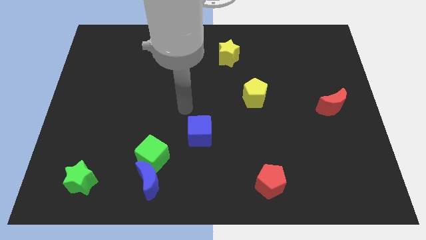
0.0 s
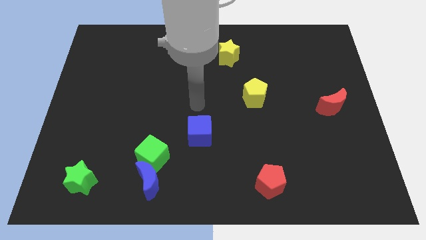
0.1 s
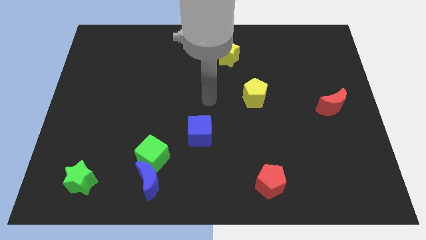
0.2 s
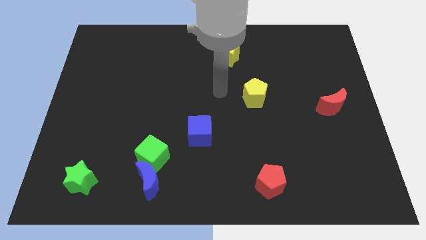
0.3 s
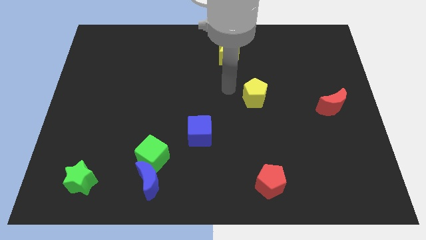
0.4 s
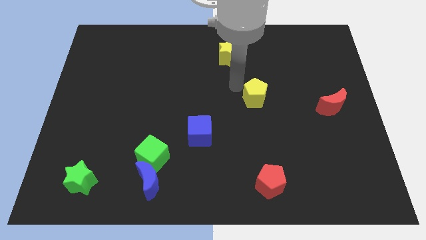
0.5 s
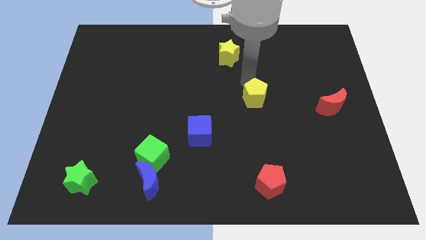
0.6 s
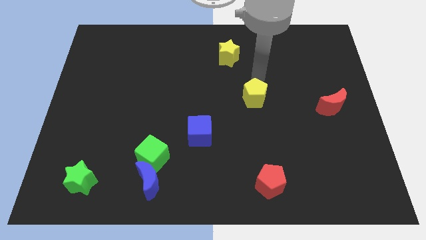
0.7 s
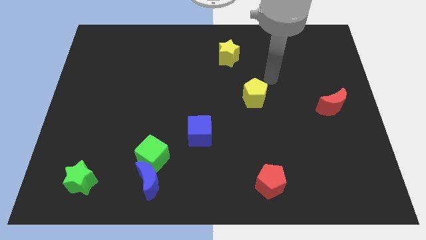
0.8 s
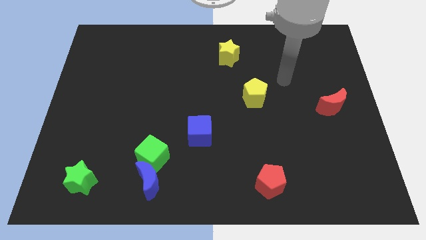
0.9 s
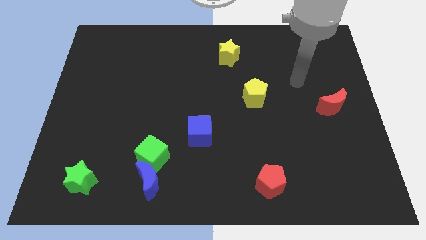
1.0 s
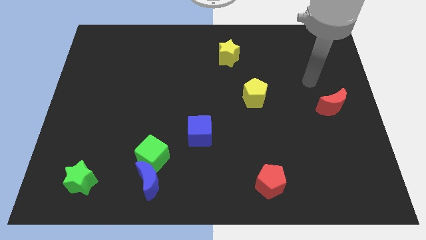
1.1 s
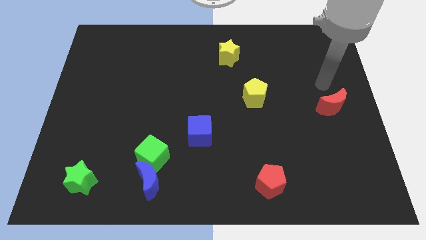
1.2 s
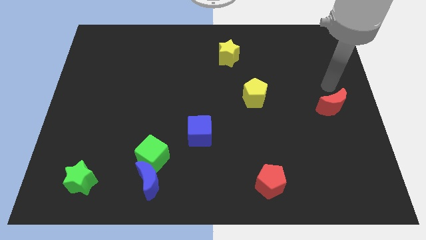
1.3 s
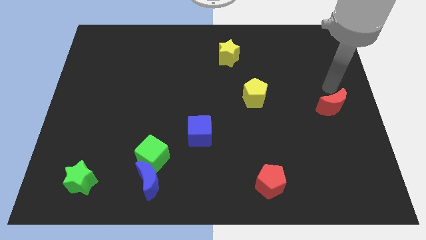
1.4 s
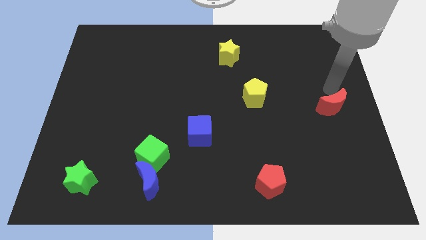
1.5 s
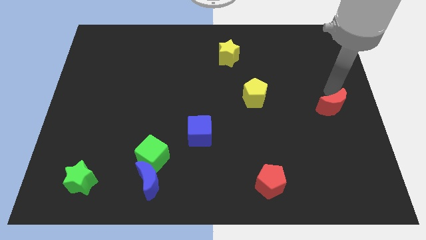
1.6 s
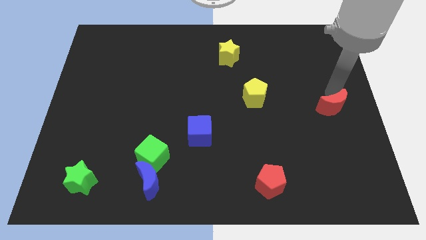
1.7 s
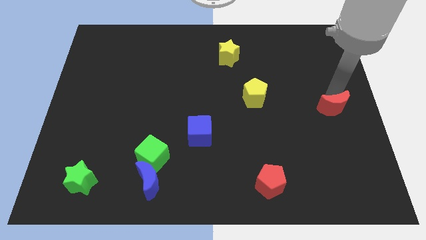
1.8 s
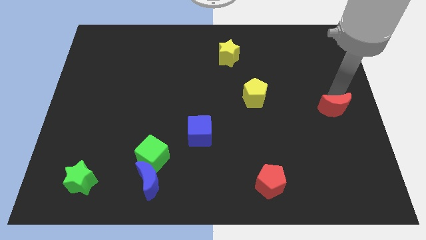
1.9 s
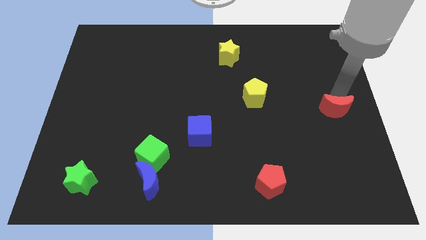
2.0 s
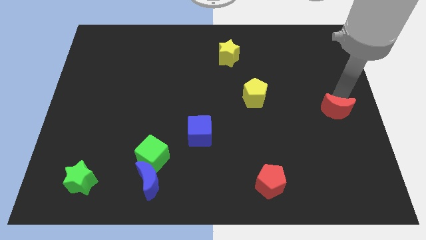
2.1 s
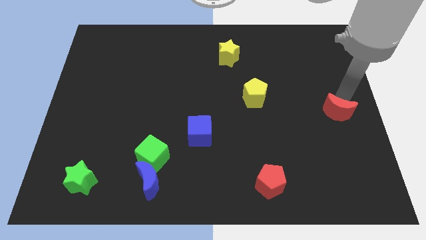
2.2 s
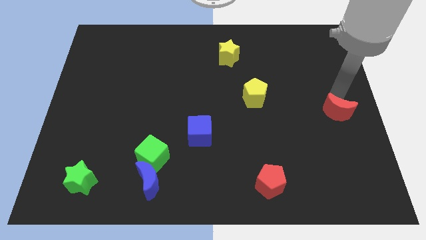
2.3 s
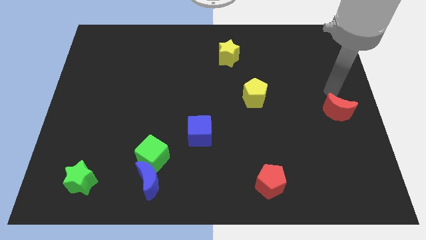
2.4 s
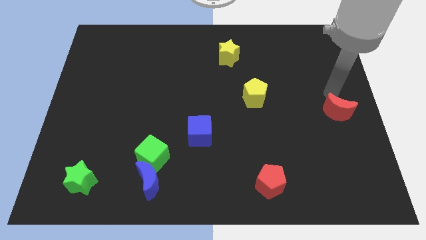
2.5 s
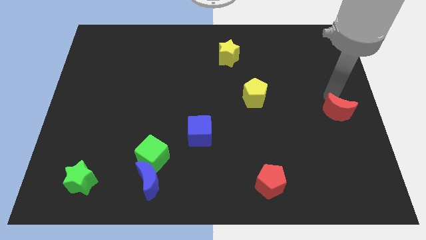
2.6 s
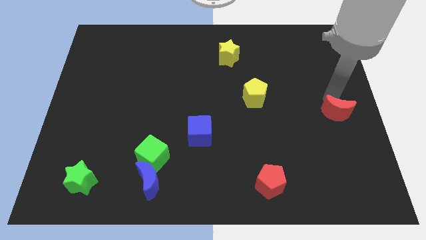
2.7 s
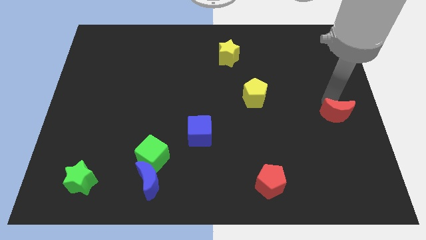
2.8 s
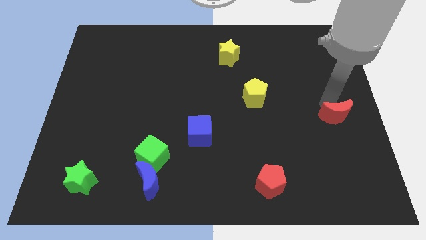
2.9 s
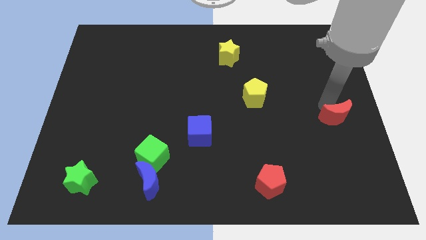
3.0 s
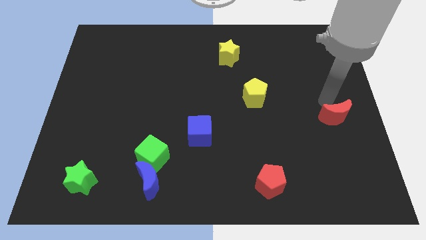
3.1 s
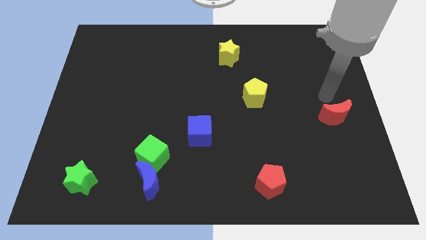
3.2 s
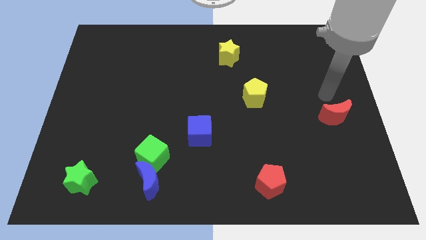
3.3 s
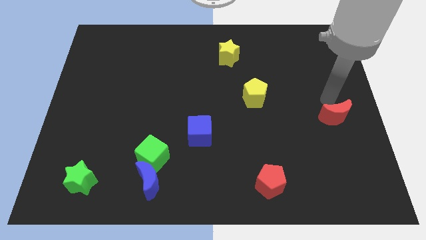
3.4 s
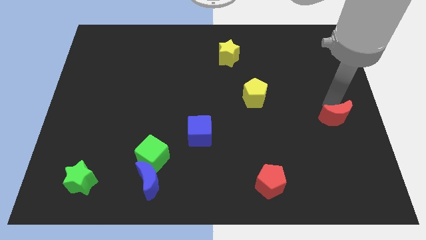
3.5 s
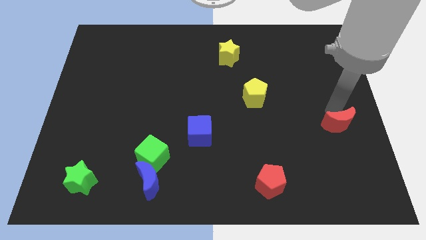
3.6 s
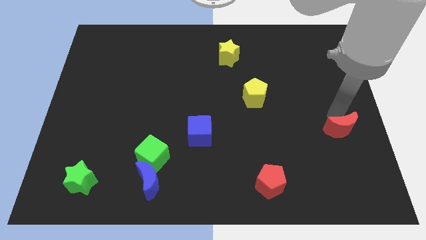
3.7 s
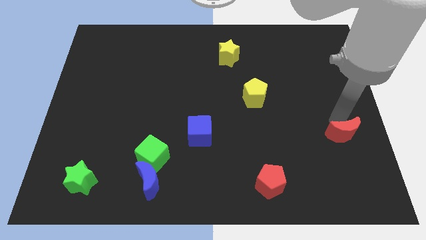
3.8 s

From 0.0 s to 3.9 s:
slightly push the red moon downwards

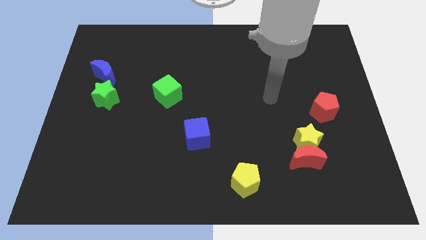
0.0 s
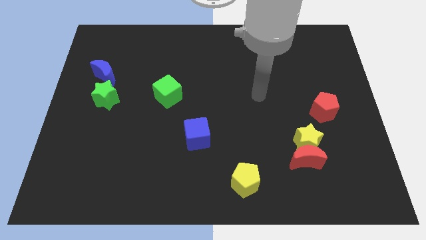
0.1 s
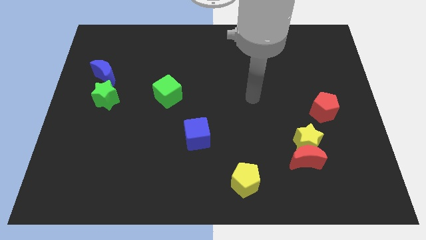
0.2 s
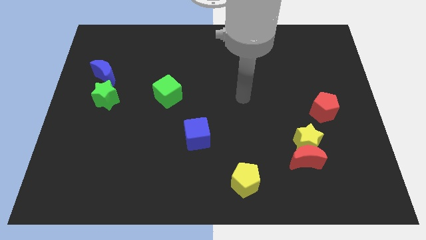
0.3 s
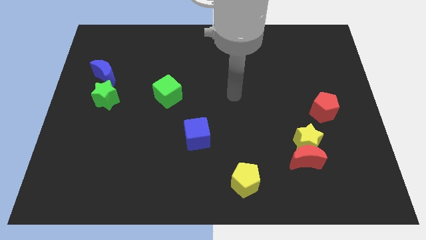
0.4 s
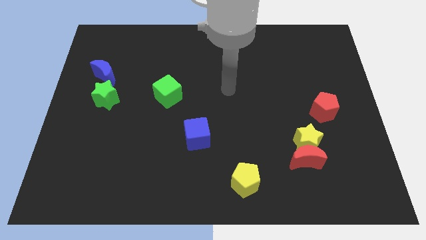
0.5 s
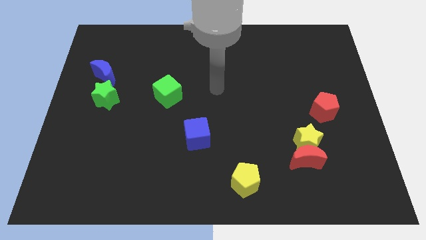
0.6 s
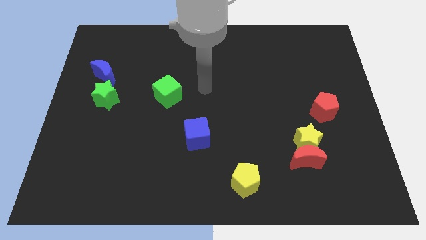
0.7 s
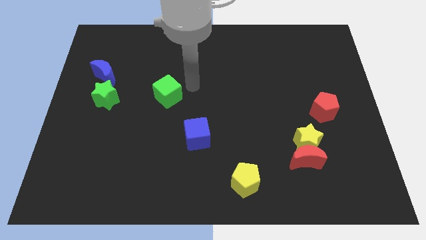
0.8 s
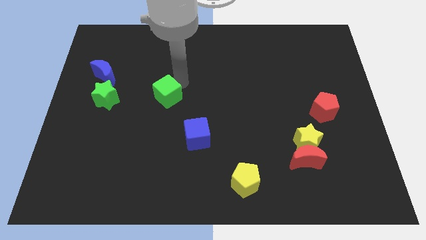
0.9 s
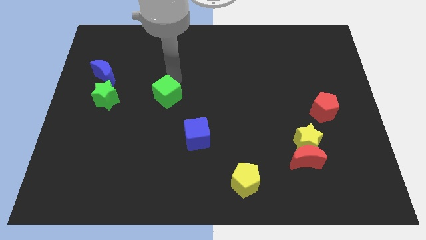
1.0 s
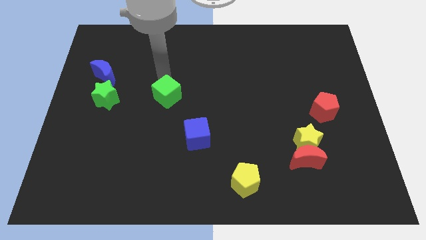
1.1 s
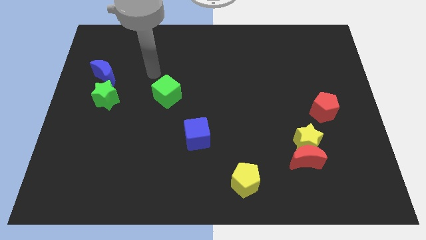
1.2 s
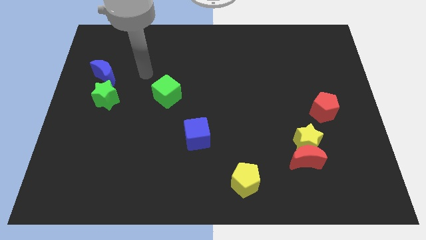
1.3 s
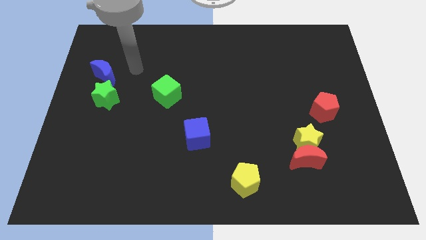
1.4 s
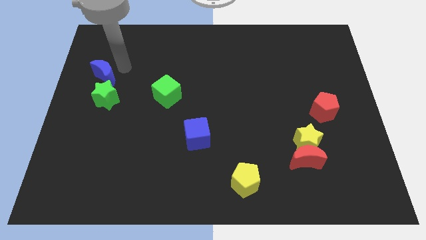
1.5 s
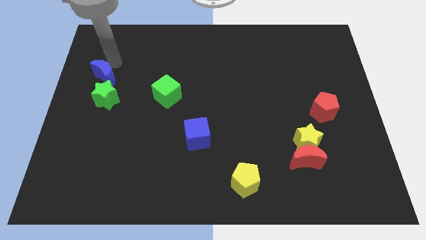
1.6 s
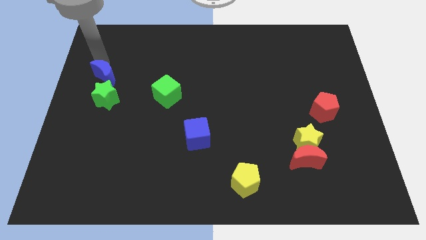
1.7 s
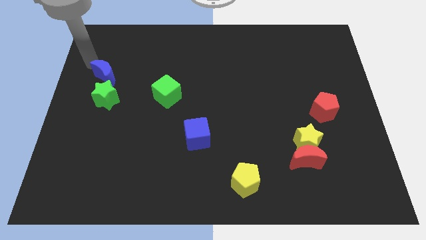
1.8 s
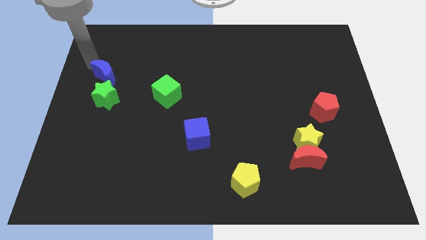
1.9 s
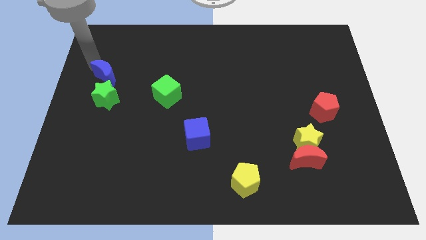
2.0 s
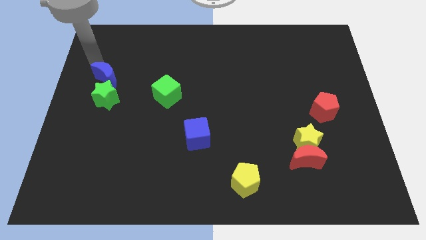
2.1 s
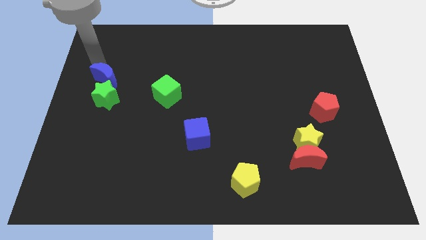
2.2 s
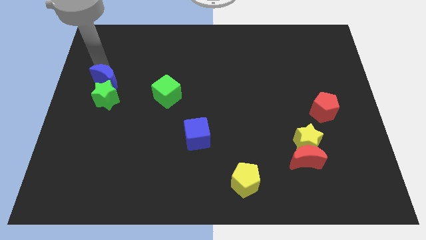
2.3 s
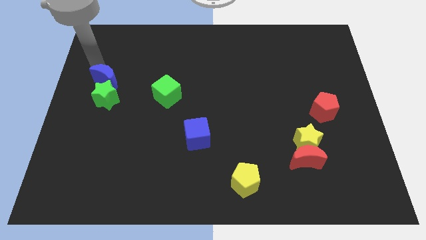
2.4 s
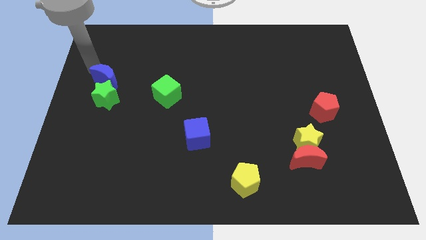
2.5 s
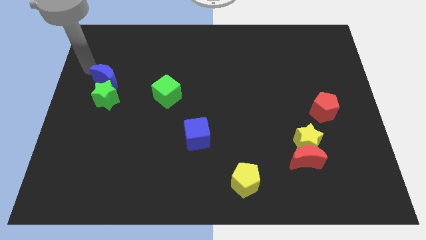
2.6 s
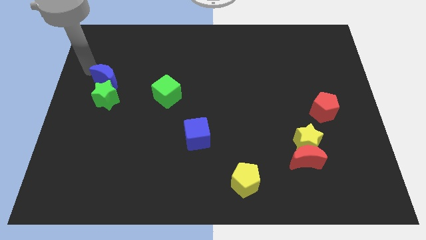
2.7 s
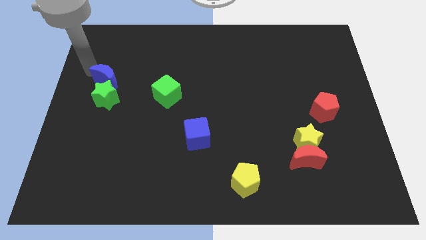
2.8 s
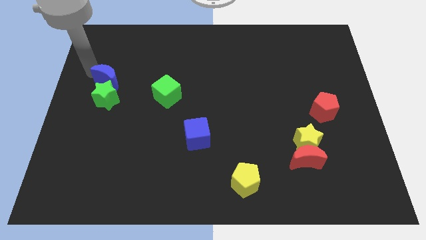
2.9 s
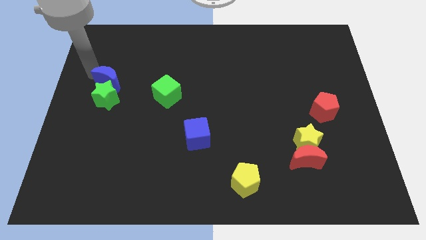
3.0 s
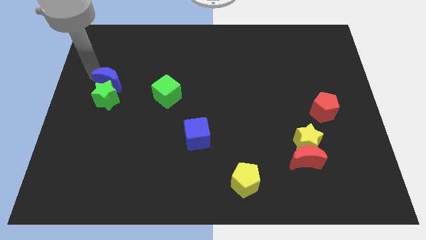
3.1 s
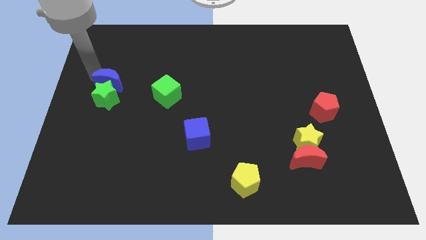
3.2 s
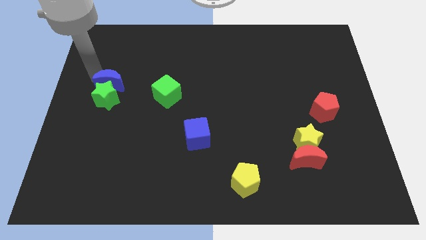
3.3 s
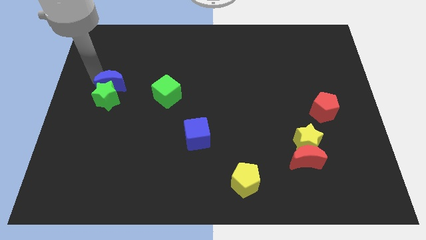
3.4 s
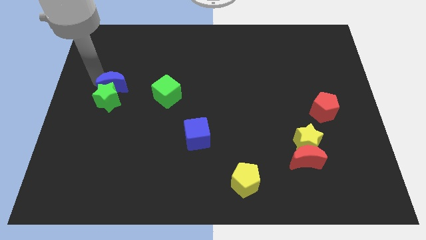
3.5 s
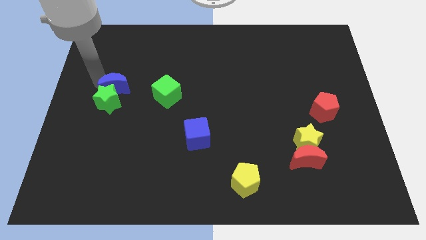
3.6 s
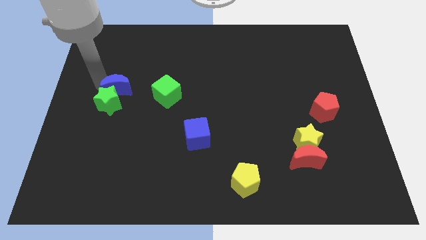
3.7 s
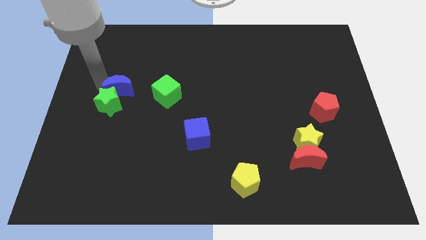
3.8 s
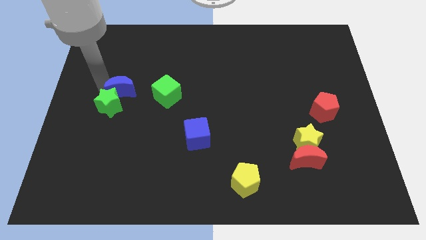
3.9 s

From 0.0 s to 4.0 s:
slightly push the blue moon down and to the right

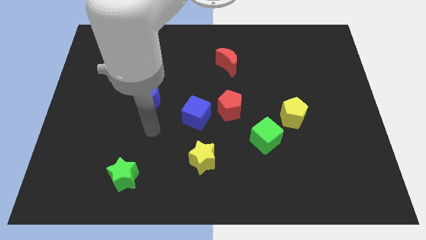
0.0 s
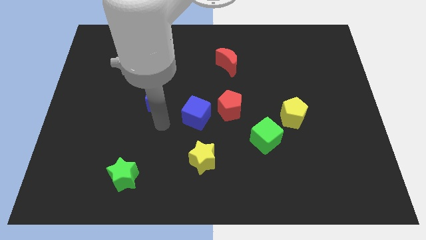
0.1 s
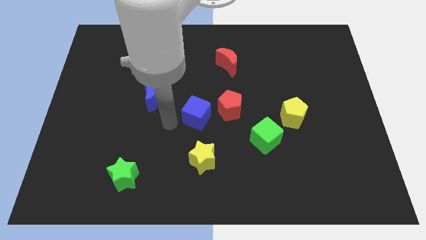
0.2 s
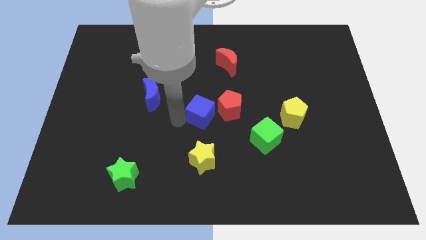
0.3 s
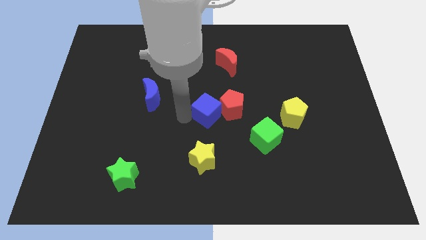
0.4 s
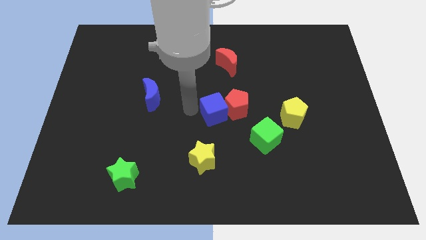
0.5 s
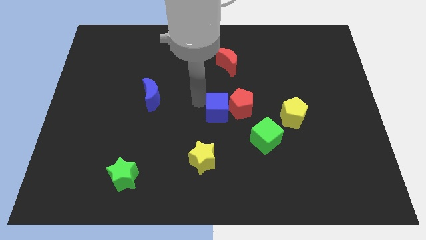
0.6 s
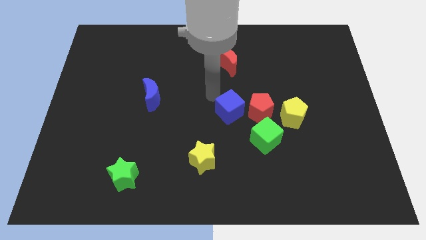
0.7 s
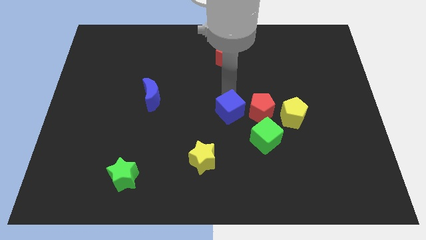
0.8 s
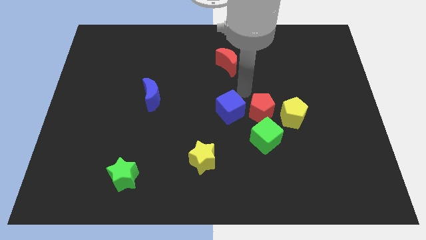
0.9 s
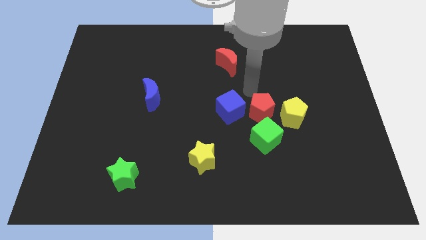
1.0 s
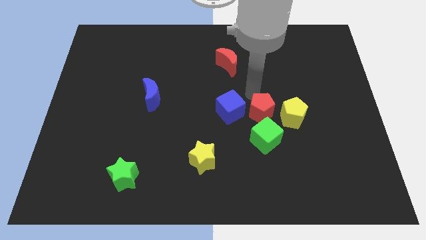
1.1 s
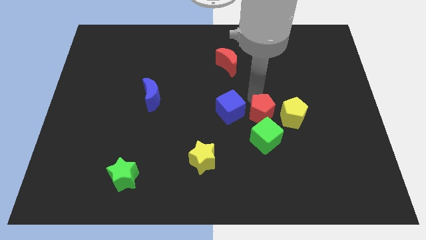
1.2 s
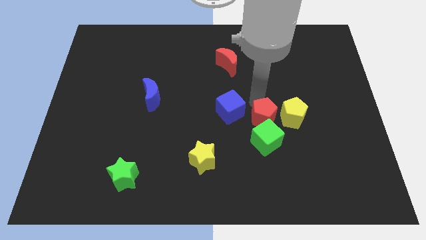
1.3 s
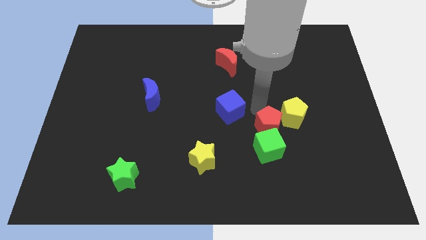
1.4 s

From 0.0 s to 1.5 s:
push the red pentagon somewhat diagonally downwards and right
